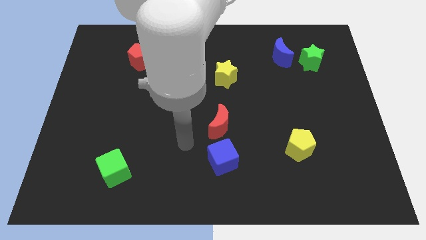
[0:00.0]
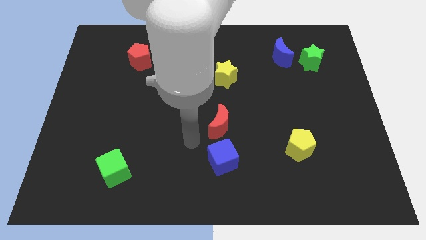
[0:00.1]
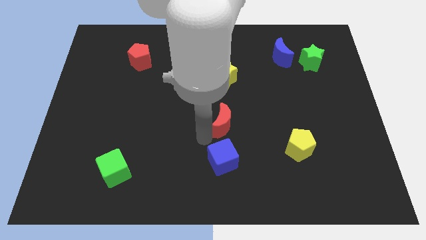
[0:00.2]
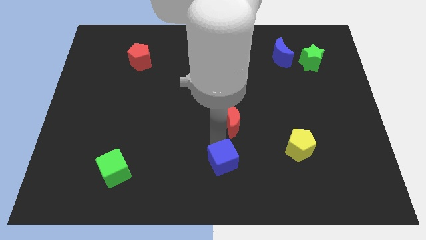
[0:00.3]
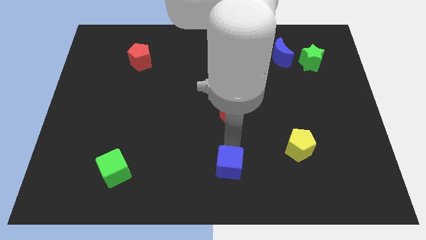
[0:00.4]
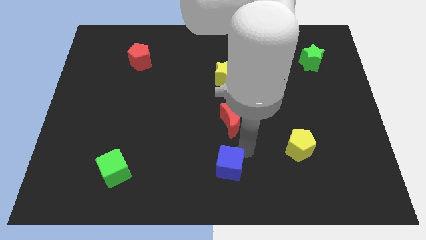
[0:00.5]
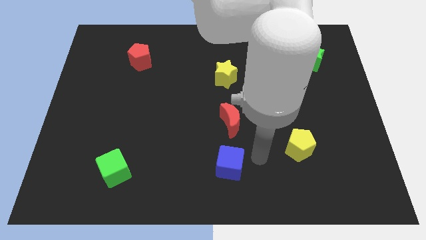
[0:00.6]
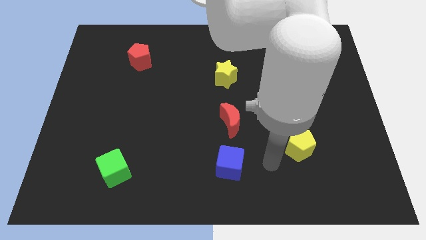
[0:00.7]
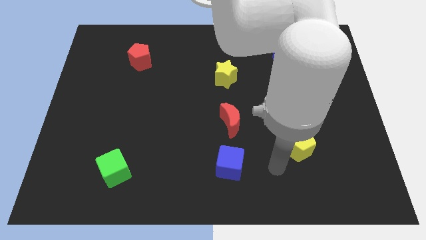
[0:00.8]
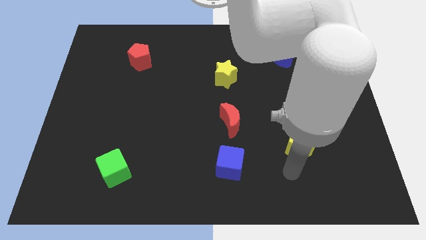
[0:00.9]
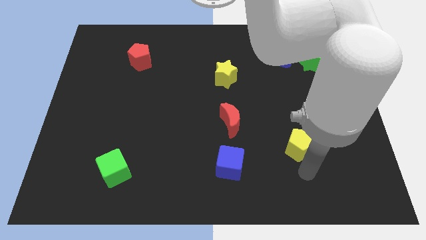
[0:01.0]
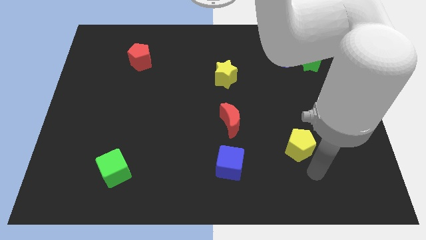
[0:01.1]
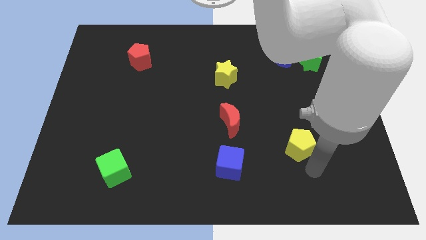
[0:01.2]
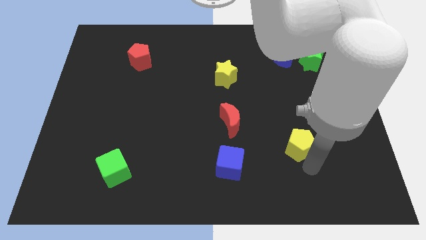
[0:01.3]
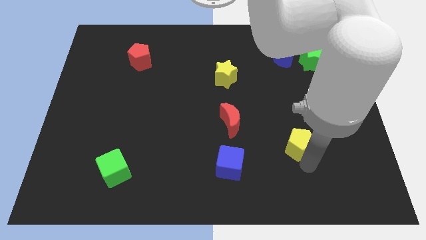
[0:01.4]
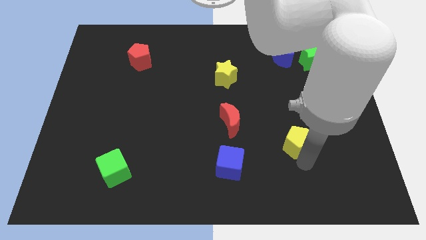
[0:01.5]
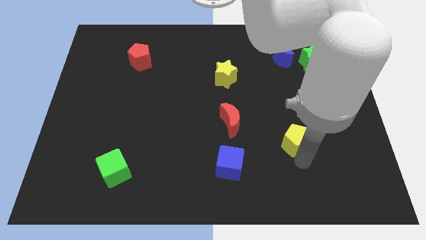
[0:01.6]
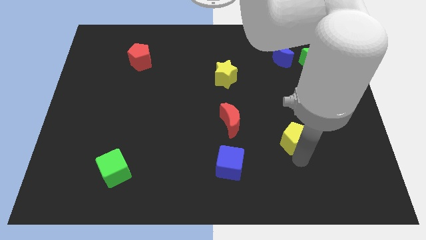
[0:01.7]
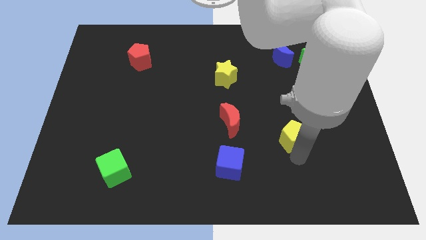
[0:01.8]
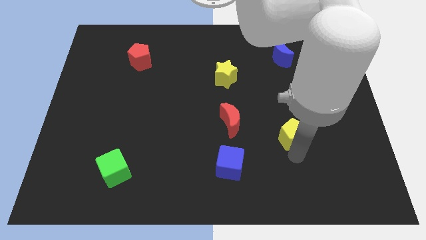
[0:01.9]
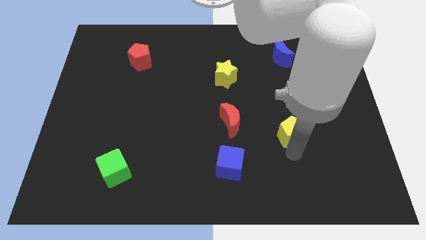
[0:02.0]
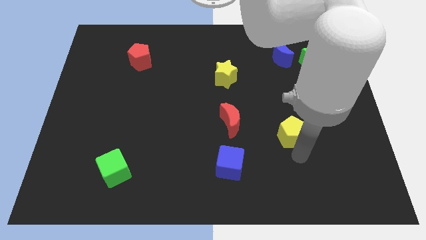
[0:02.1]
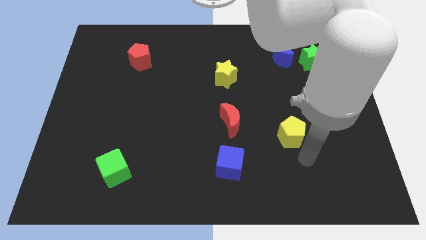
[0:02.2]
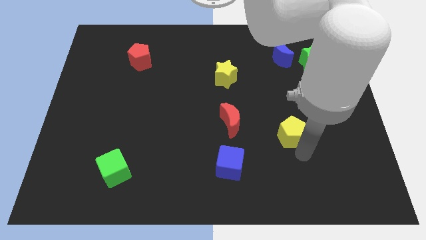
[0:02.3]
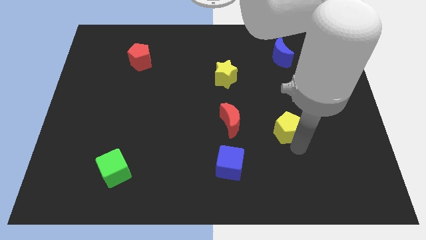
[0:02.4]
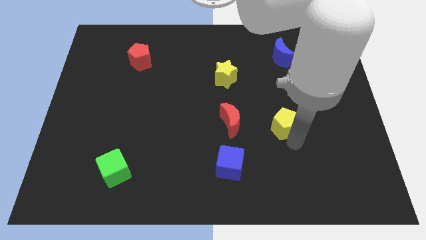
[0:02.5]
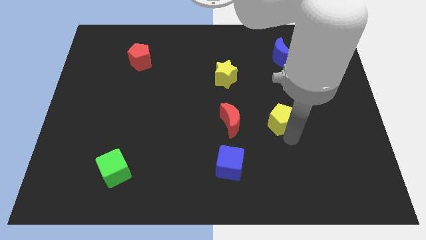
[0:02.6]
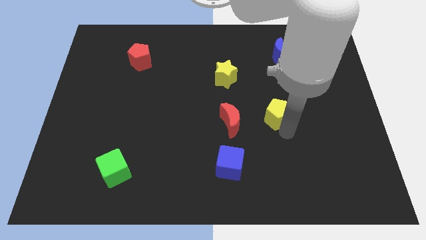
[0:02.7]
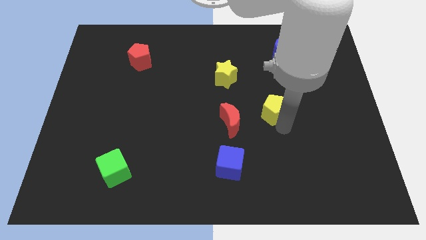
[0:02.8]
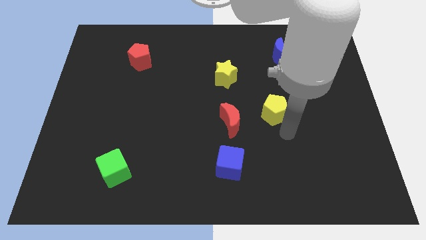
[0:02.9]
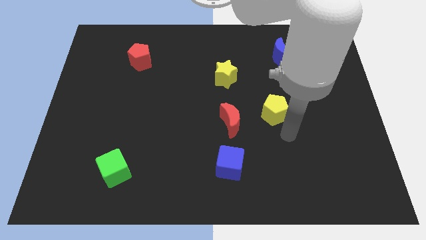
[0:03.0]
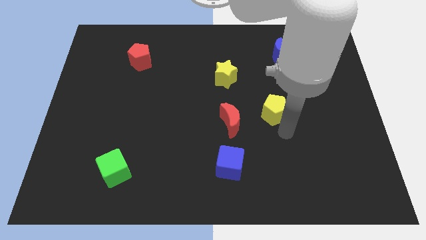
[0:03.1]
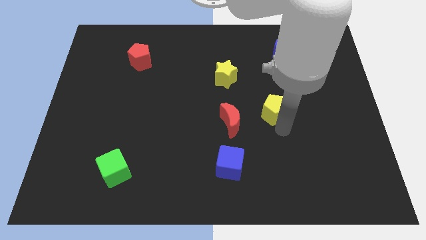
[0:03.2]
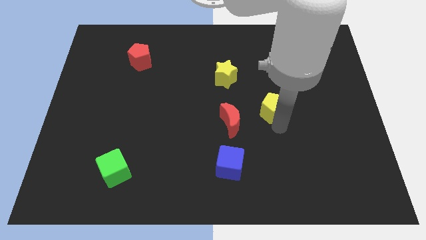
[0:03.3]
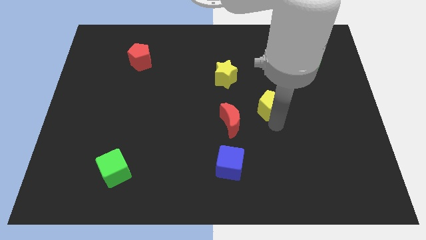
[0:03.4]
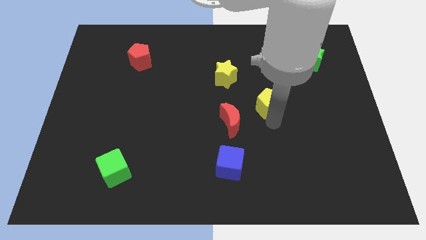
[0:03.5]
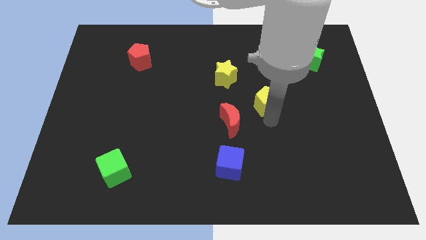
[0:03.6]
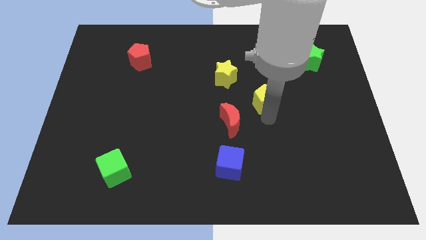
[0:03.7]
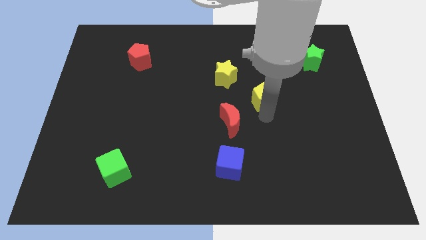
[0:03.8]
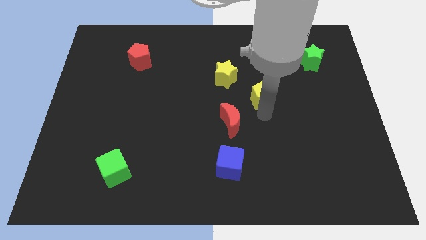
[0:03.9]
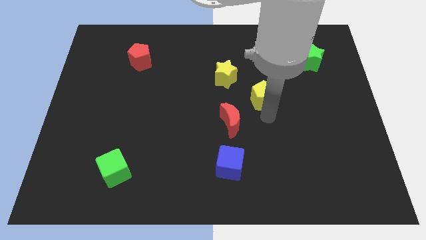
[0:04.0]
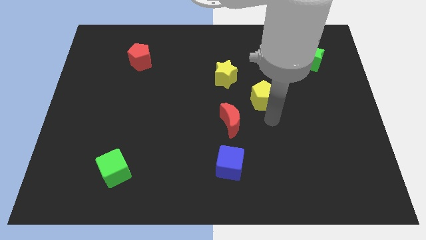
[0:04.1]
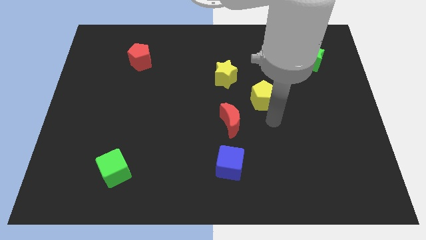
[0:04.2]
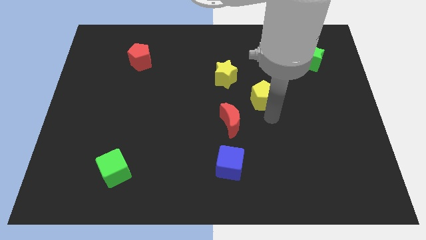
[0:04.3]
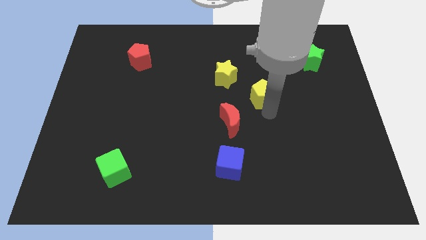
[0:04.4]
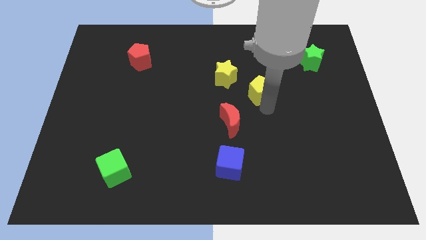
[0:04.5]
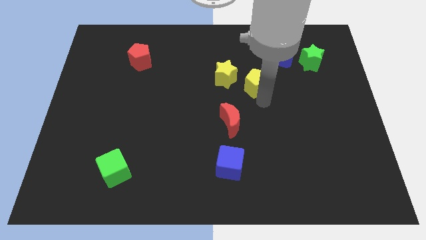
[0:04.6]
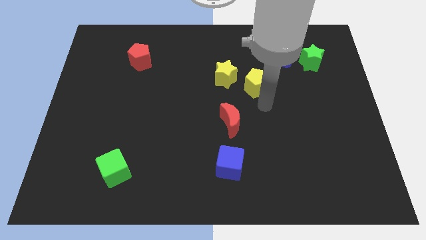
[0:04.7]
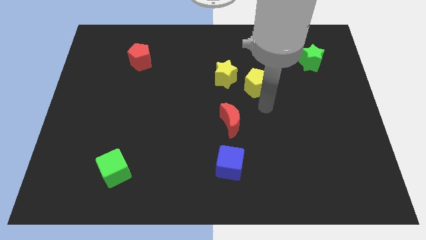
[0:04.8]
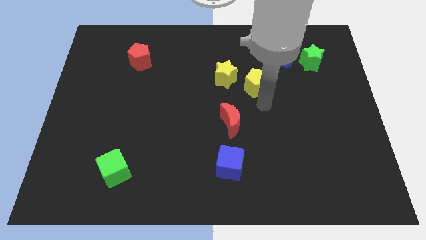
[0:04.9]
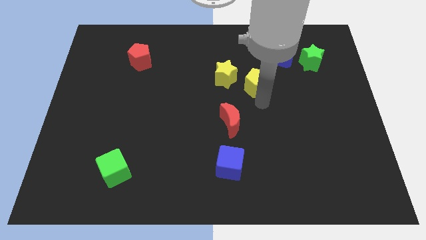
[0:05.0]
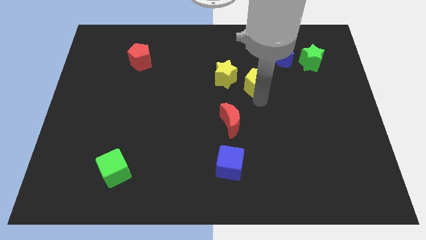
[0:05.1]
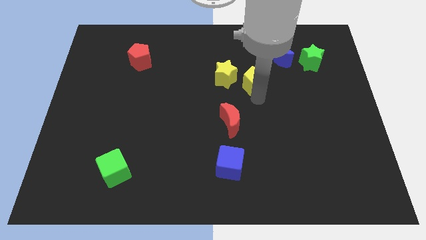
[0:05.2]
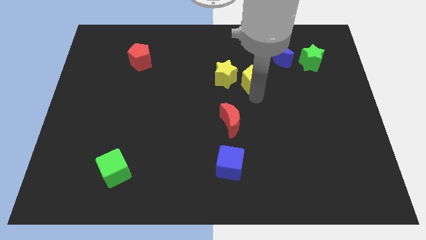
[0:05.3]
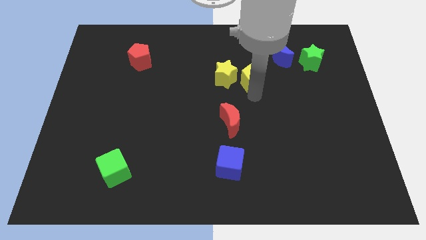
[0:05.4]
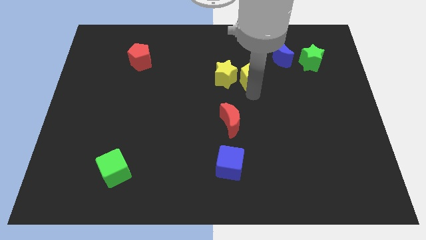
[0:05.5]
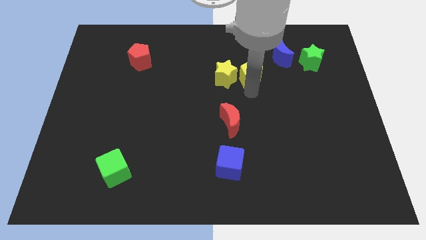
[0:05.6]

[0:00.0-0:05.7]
move the yellow pentagon to the top right side of the yellow star

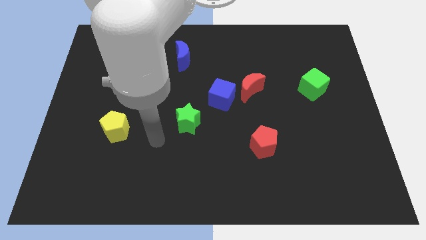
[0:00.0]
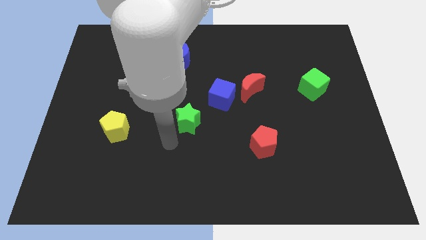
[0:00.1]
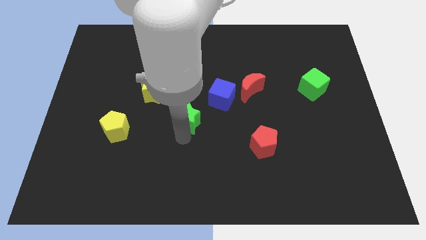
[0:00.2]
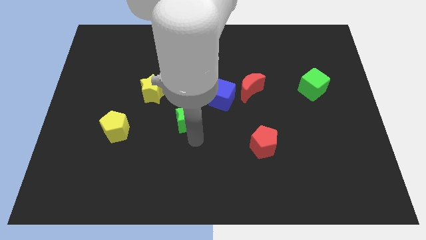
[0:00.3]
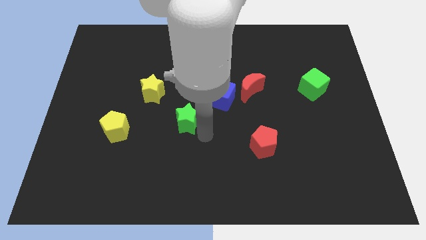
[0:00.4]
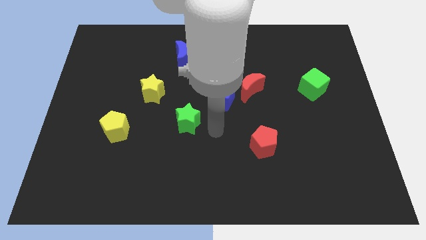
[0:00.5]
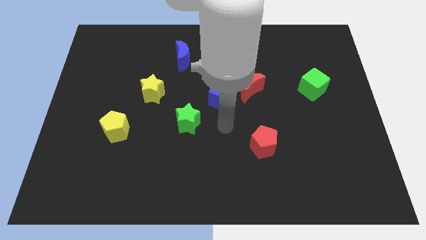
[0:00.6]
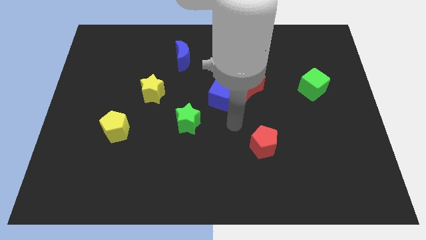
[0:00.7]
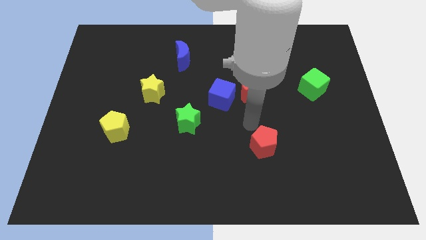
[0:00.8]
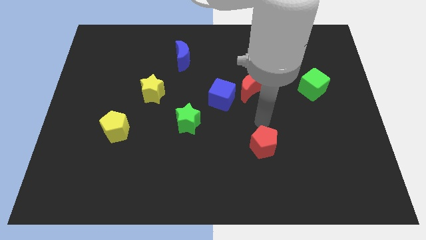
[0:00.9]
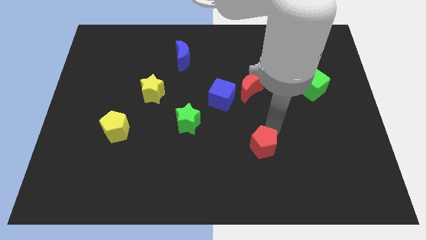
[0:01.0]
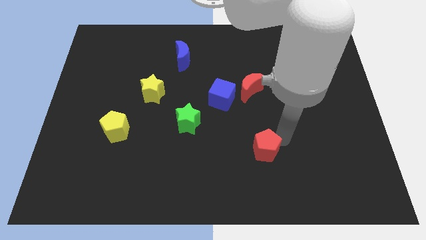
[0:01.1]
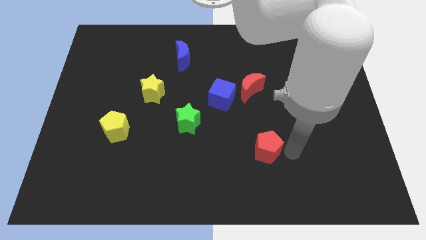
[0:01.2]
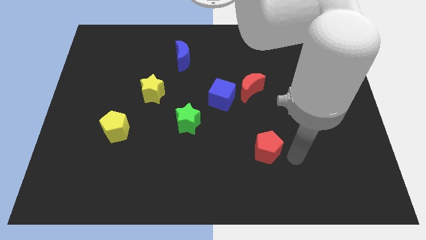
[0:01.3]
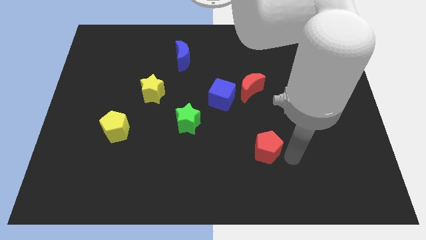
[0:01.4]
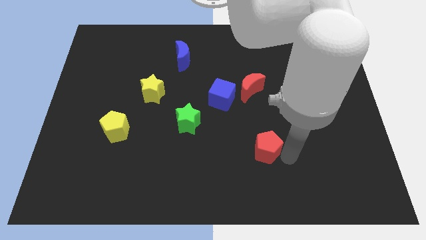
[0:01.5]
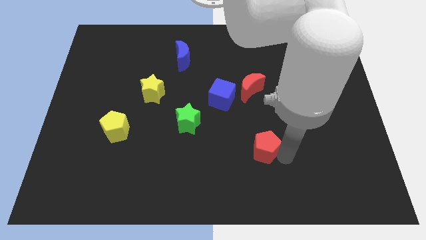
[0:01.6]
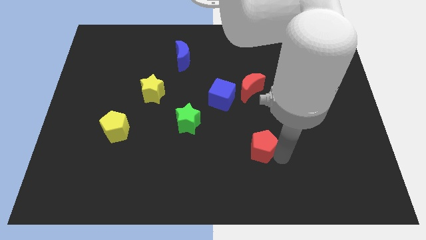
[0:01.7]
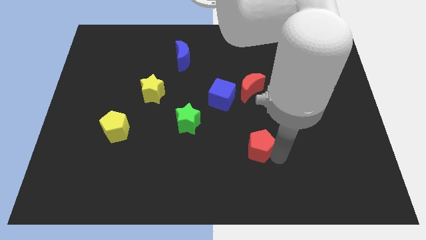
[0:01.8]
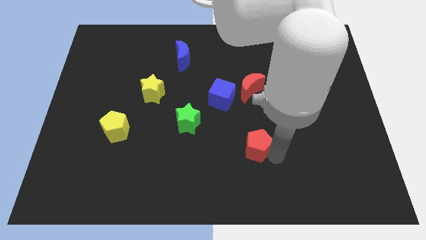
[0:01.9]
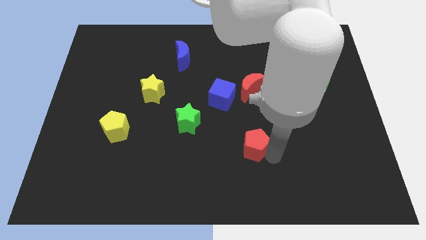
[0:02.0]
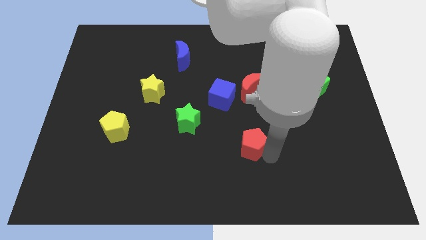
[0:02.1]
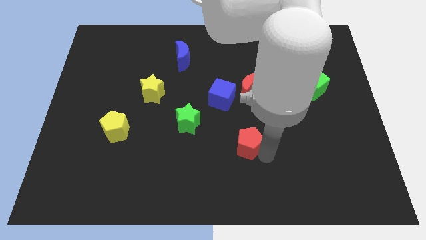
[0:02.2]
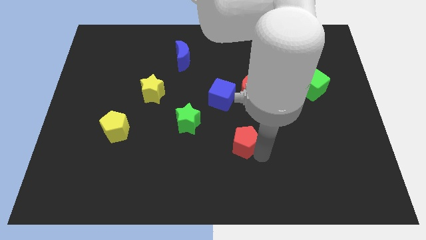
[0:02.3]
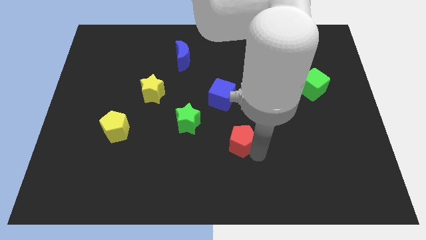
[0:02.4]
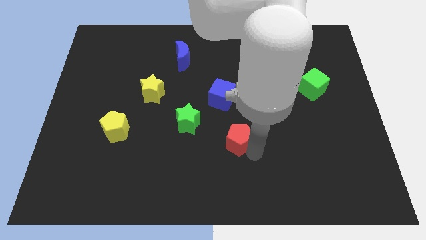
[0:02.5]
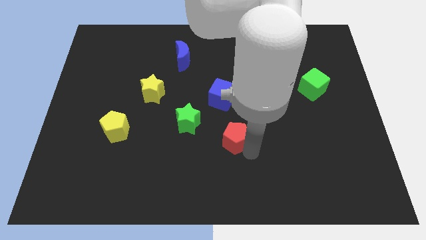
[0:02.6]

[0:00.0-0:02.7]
move the red pentagon to the bottom right side of the green star
